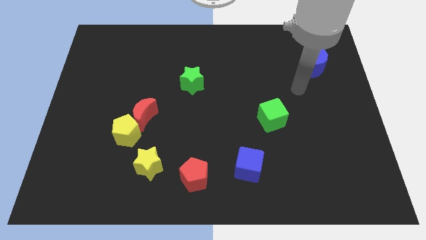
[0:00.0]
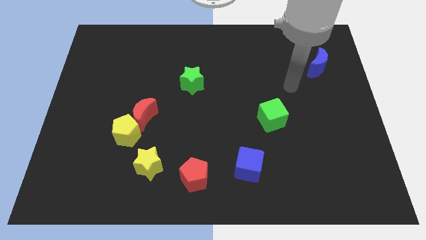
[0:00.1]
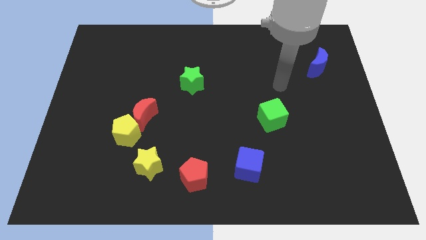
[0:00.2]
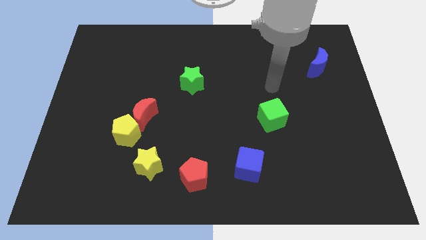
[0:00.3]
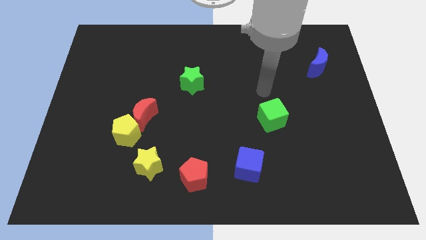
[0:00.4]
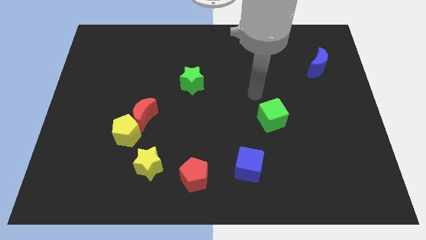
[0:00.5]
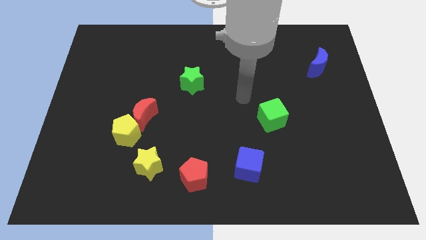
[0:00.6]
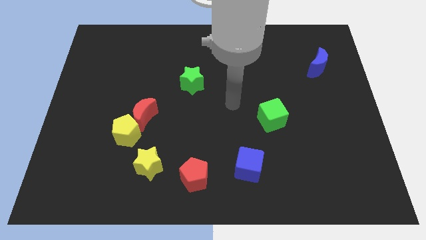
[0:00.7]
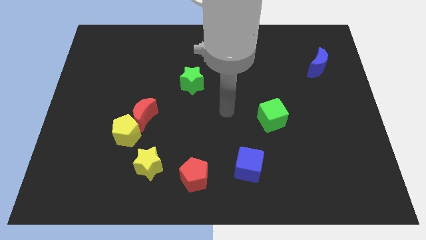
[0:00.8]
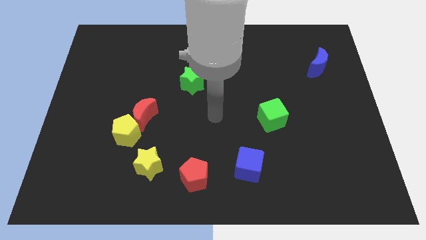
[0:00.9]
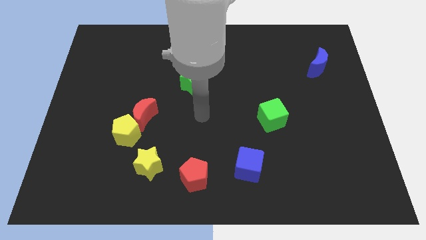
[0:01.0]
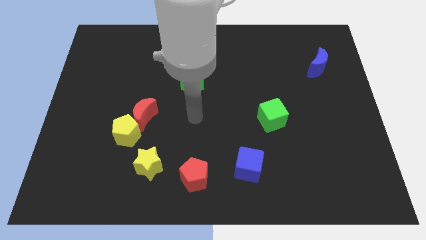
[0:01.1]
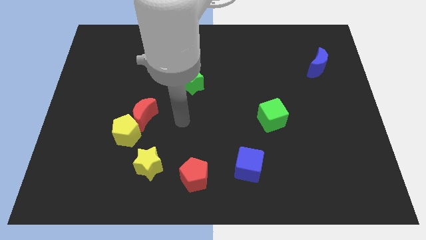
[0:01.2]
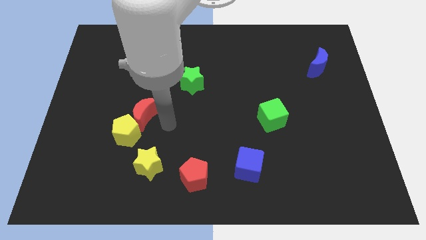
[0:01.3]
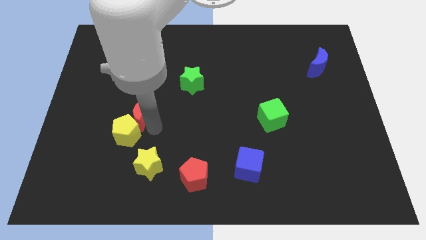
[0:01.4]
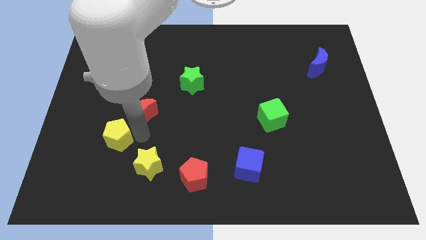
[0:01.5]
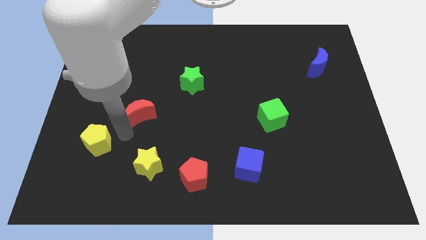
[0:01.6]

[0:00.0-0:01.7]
pull the red moon apart from the yellow pentagon

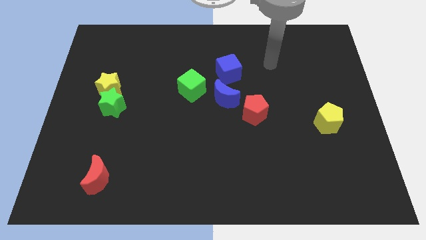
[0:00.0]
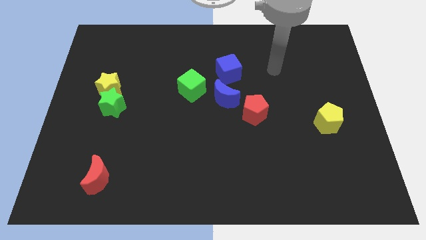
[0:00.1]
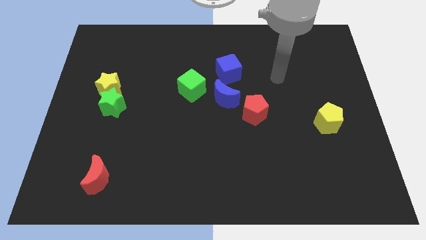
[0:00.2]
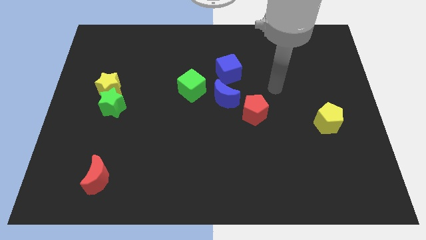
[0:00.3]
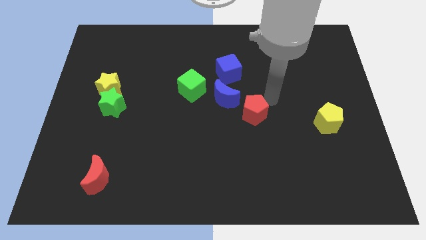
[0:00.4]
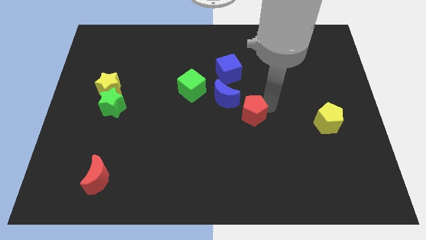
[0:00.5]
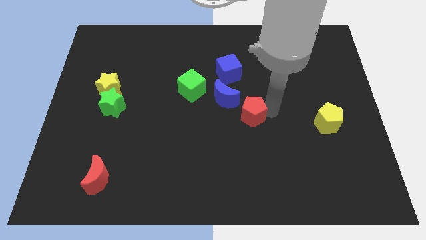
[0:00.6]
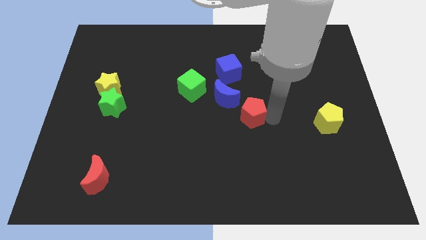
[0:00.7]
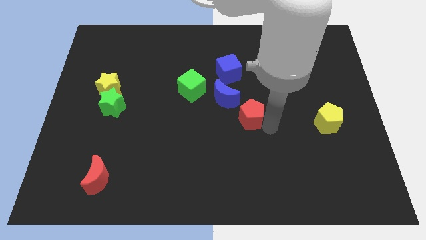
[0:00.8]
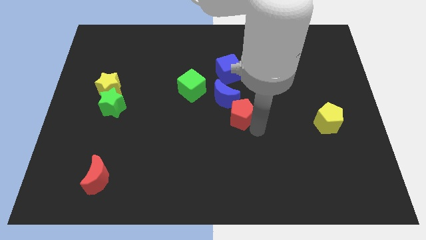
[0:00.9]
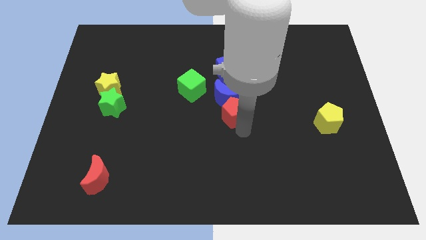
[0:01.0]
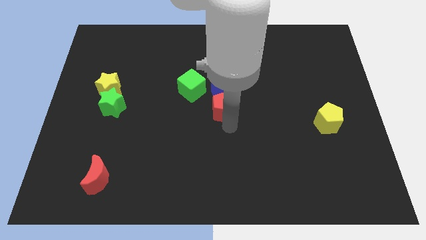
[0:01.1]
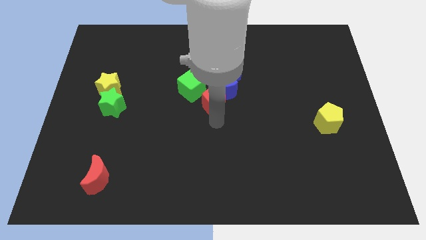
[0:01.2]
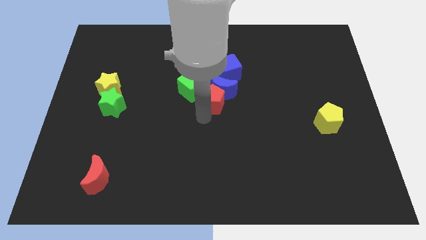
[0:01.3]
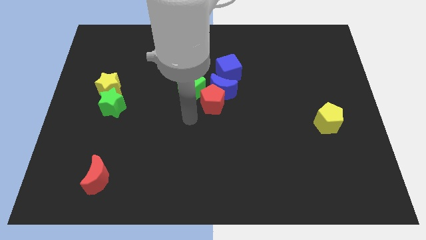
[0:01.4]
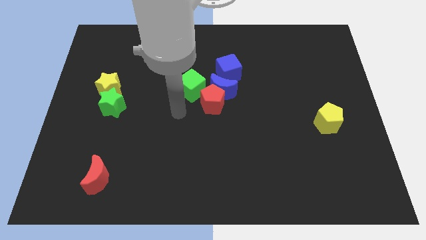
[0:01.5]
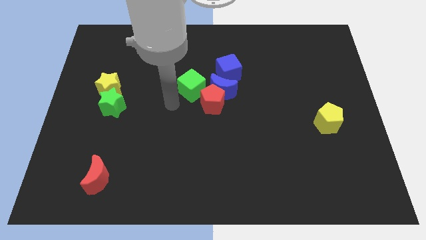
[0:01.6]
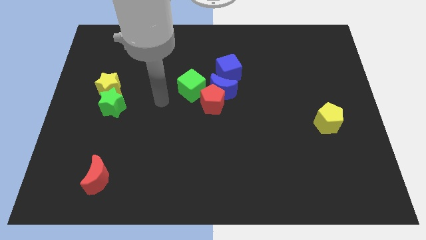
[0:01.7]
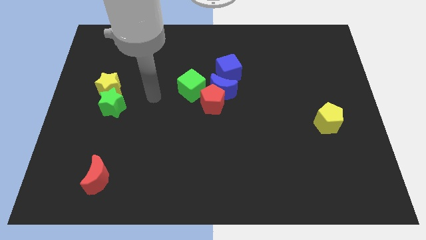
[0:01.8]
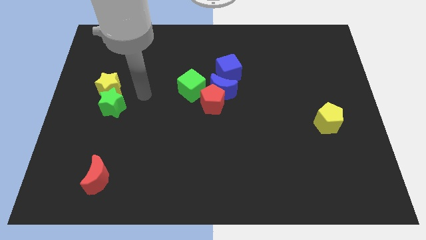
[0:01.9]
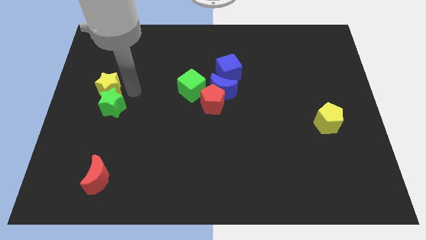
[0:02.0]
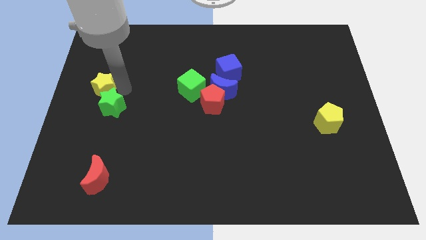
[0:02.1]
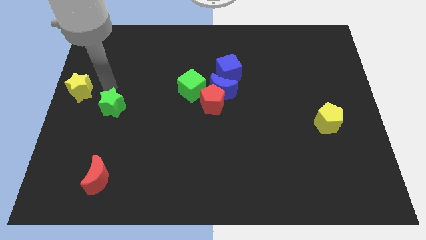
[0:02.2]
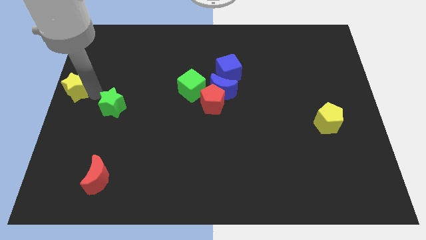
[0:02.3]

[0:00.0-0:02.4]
separate the green star from the yellow star

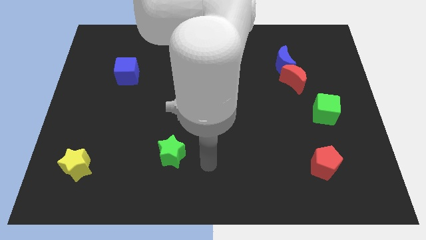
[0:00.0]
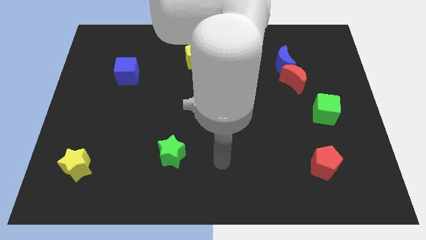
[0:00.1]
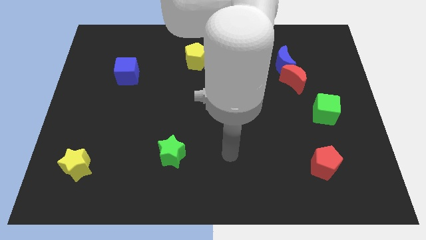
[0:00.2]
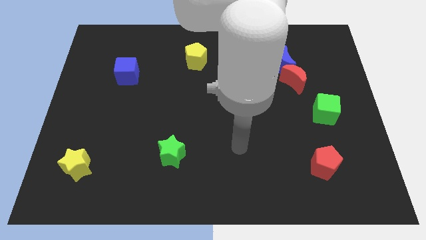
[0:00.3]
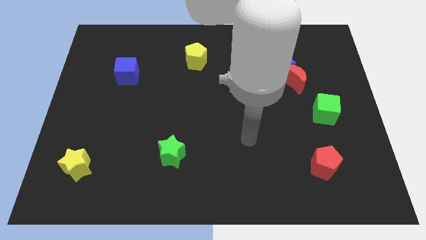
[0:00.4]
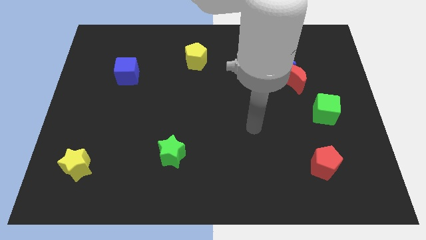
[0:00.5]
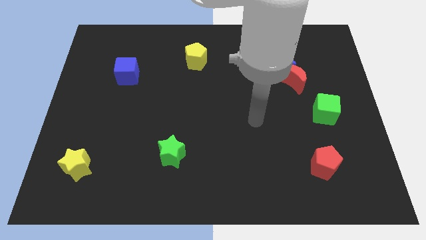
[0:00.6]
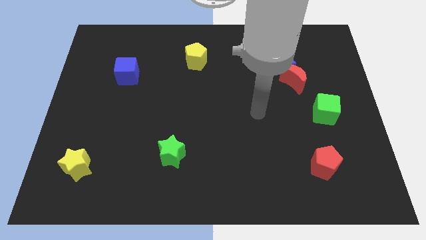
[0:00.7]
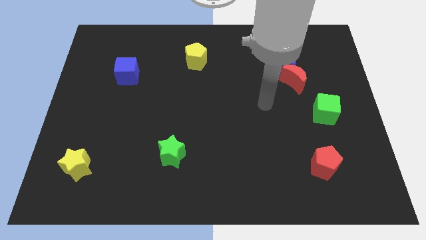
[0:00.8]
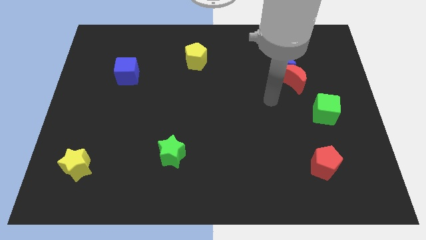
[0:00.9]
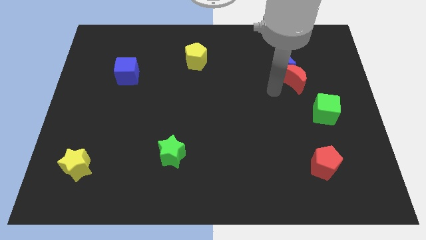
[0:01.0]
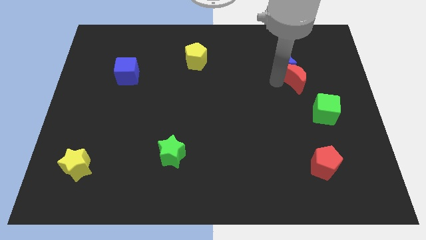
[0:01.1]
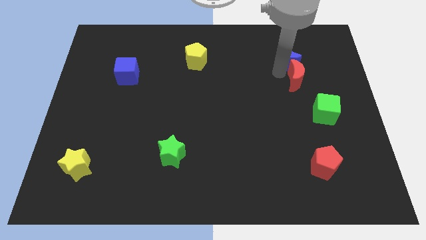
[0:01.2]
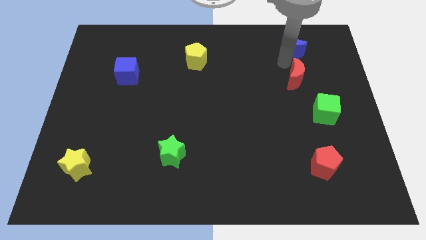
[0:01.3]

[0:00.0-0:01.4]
pull the red moon apart from the blue moon

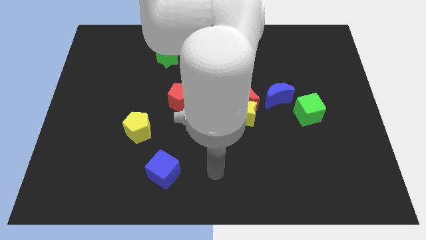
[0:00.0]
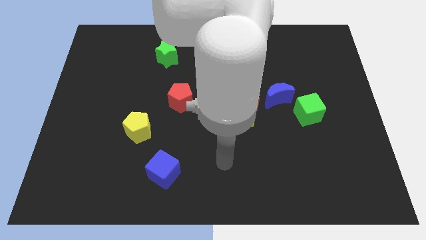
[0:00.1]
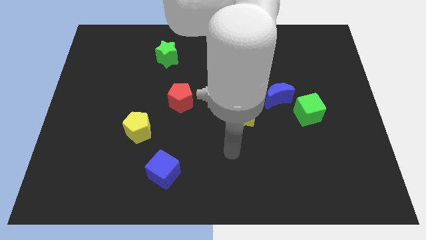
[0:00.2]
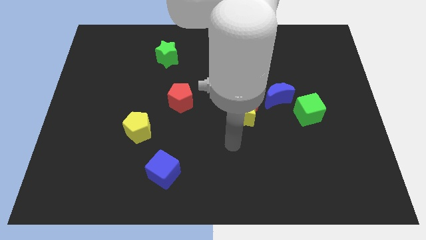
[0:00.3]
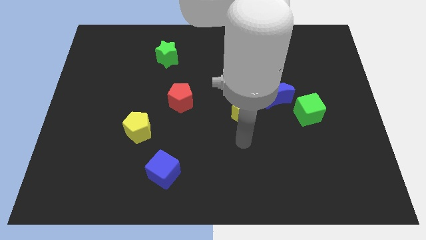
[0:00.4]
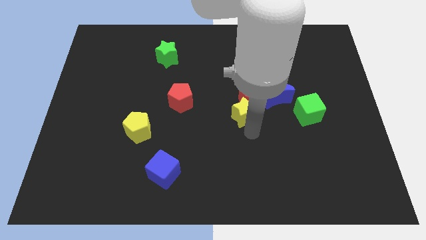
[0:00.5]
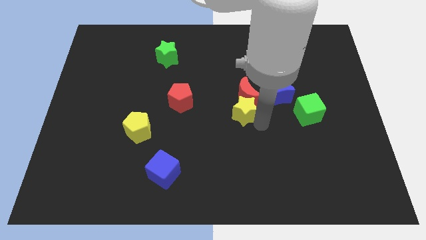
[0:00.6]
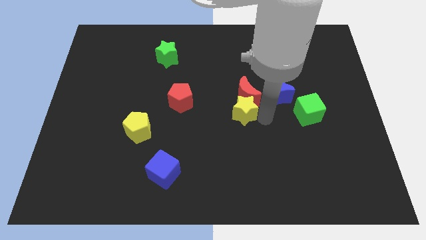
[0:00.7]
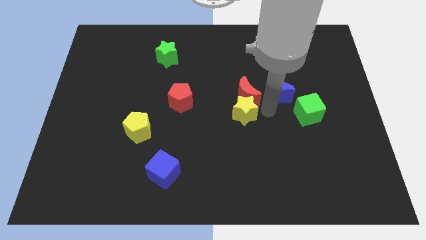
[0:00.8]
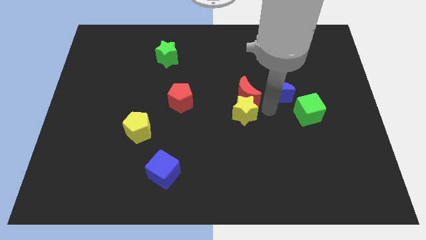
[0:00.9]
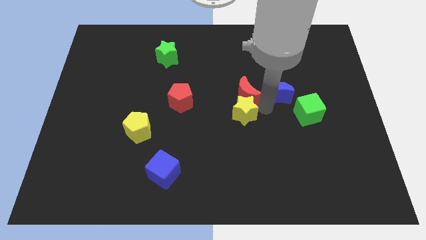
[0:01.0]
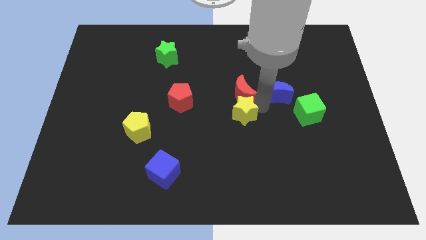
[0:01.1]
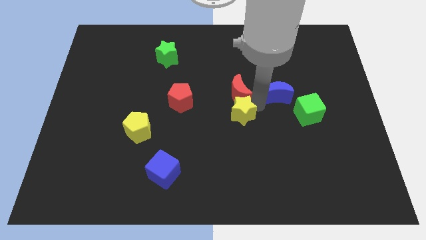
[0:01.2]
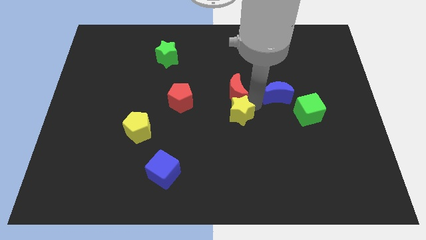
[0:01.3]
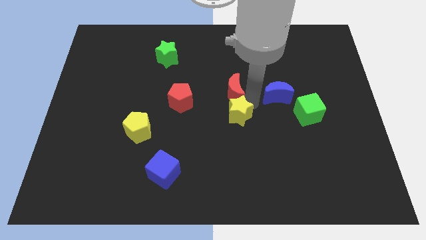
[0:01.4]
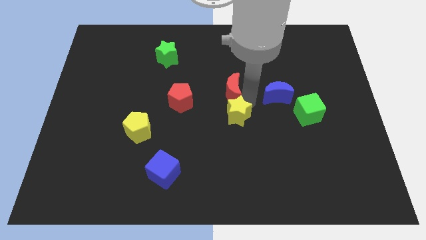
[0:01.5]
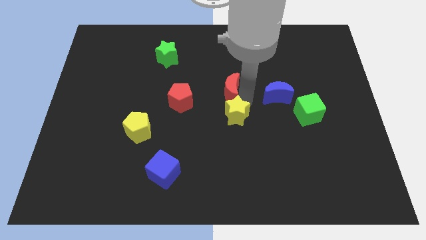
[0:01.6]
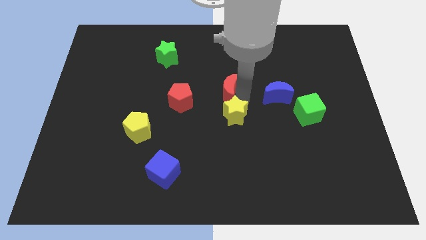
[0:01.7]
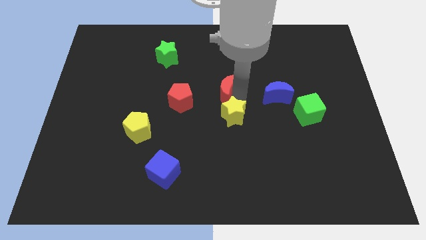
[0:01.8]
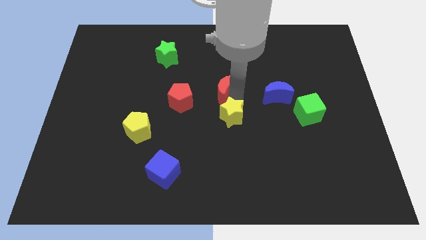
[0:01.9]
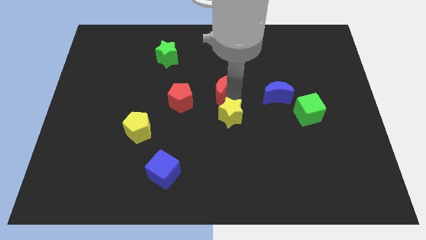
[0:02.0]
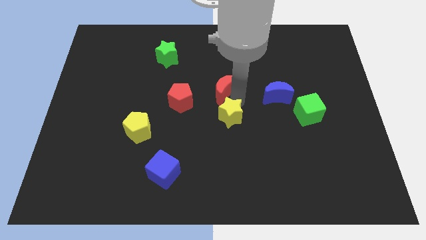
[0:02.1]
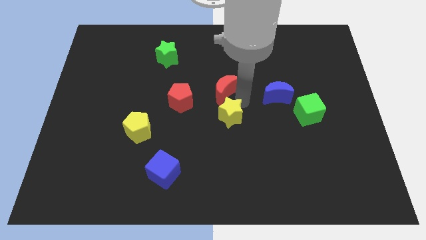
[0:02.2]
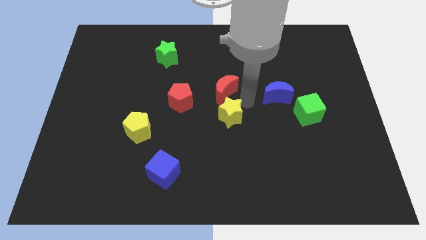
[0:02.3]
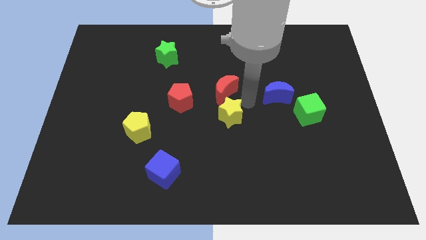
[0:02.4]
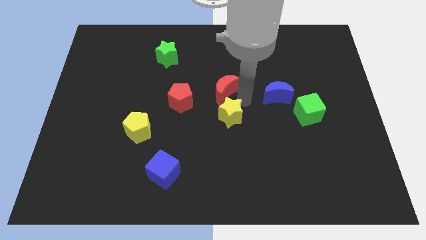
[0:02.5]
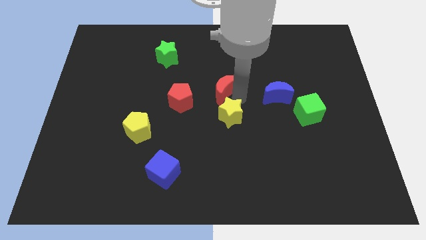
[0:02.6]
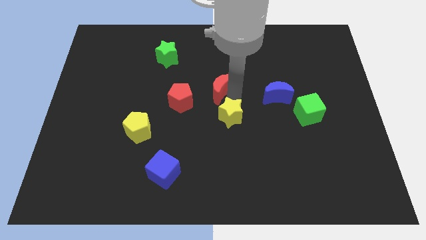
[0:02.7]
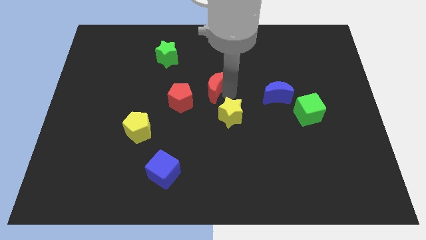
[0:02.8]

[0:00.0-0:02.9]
move the red moon away from the yellow star and blue moon

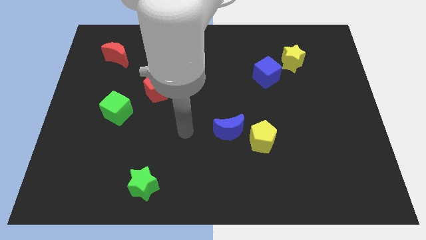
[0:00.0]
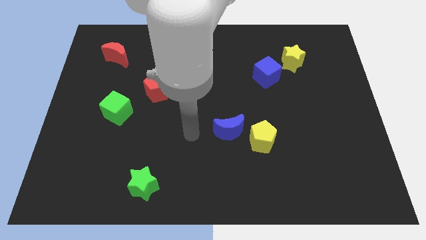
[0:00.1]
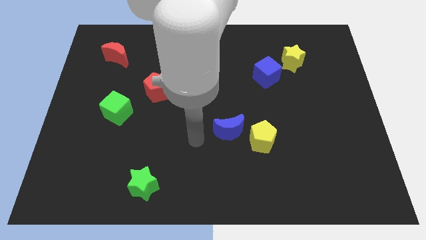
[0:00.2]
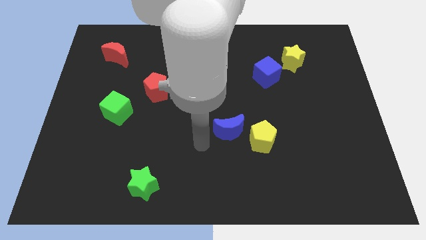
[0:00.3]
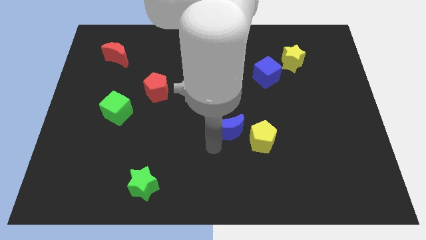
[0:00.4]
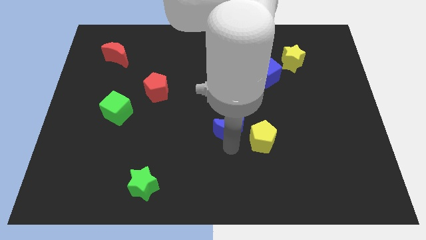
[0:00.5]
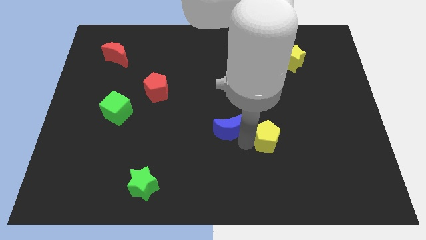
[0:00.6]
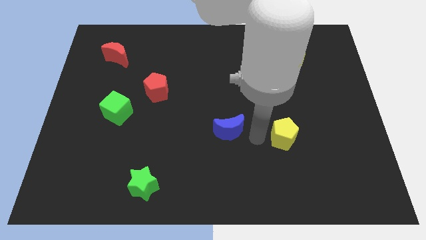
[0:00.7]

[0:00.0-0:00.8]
separate the blue moon from the yellow pentagon
